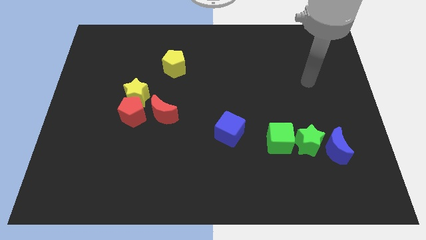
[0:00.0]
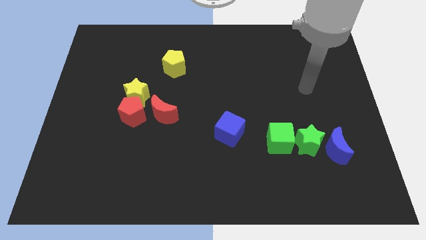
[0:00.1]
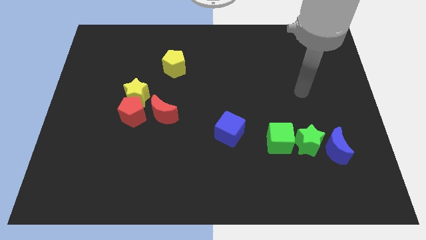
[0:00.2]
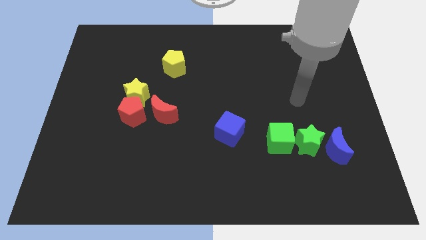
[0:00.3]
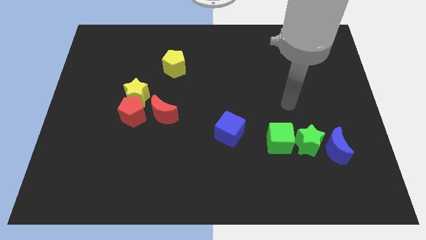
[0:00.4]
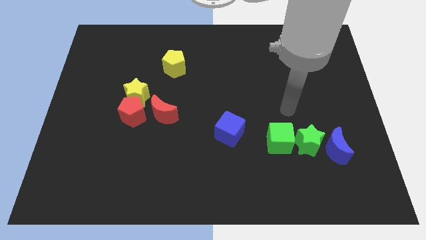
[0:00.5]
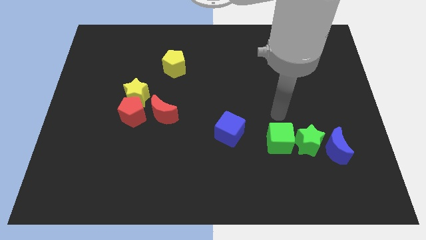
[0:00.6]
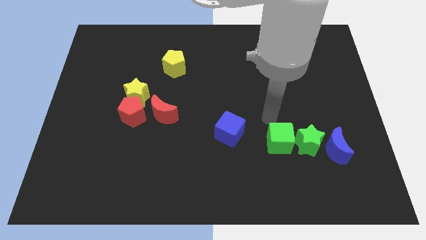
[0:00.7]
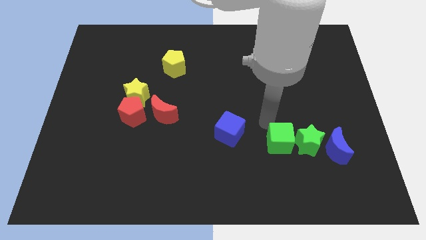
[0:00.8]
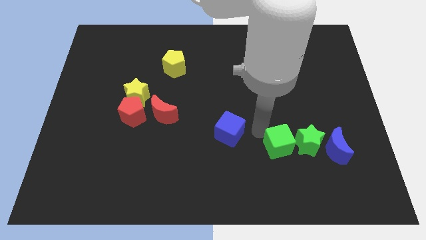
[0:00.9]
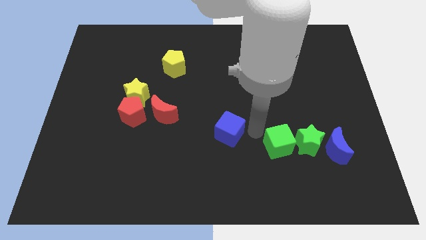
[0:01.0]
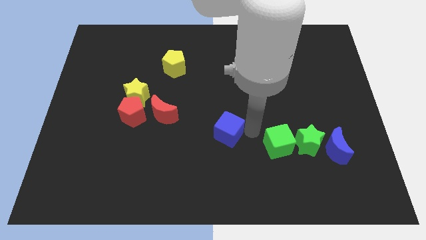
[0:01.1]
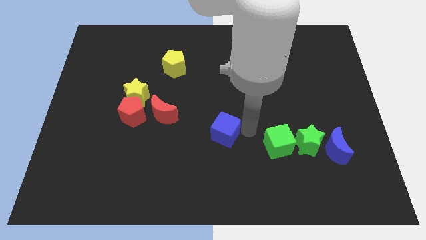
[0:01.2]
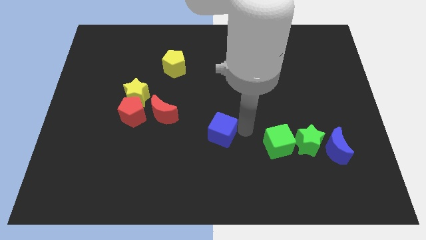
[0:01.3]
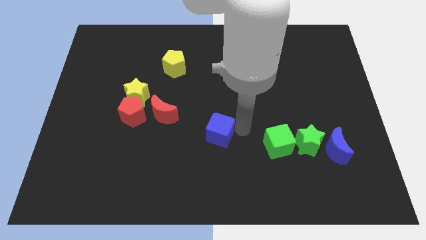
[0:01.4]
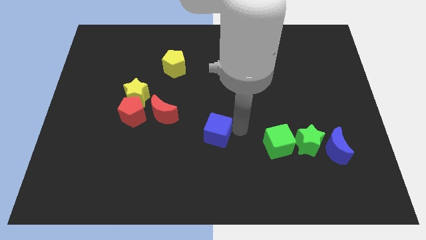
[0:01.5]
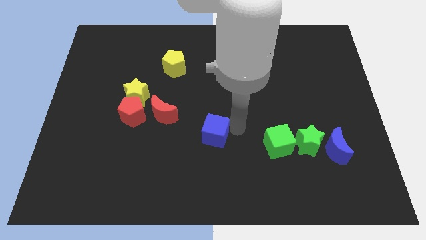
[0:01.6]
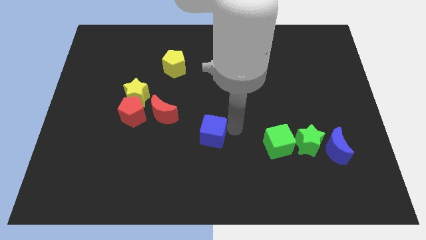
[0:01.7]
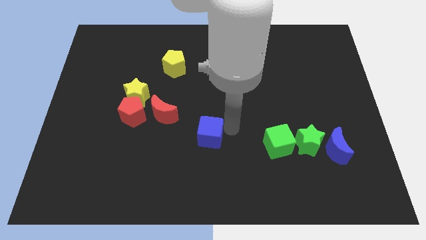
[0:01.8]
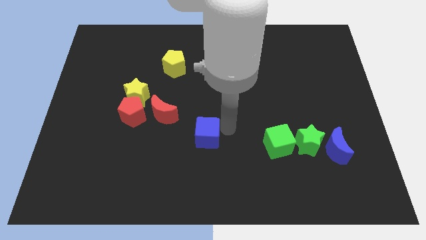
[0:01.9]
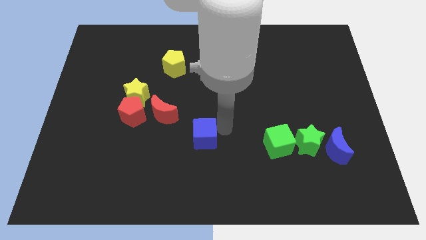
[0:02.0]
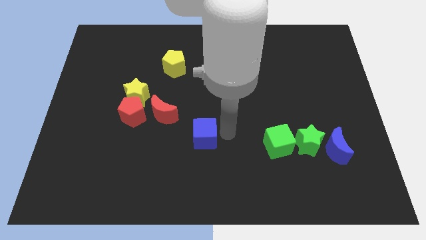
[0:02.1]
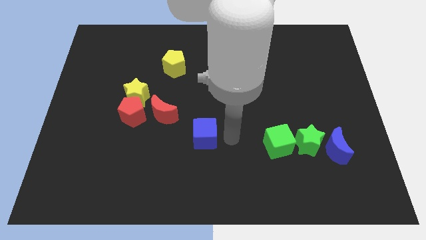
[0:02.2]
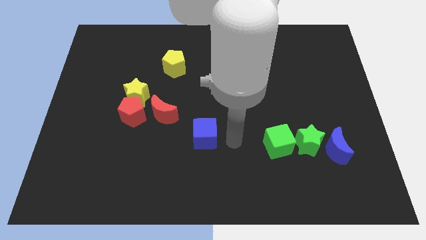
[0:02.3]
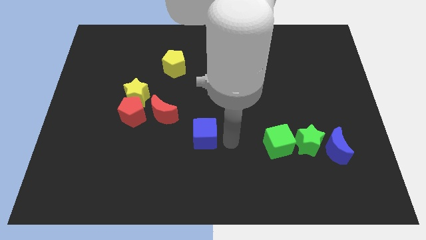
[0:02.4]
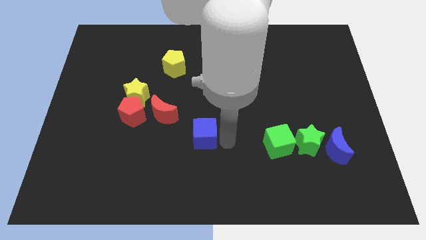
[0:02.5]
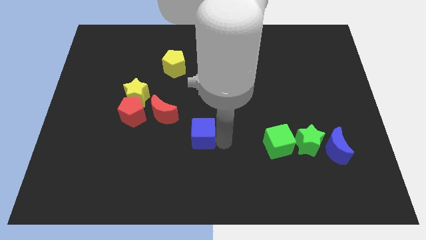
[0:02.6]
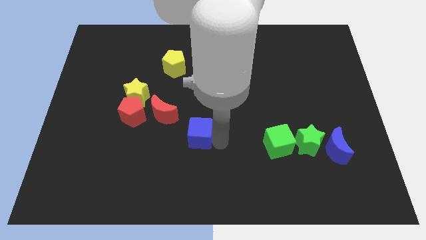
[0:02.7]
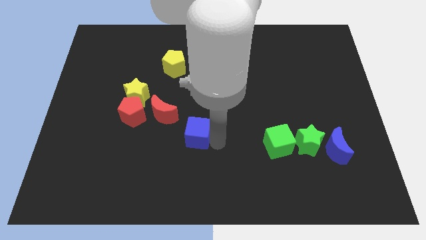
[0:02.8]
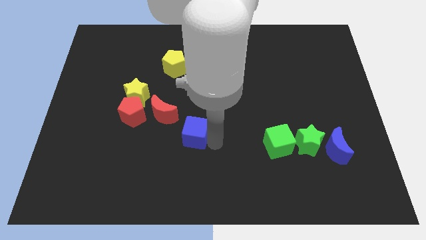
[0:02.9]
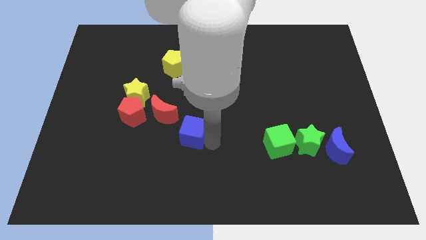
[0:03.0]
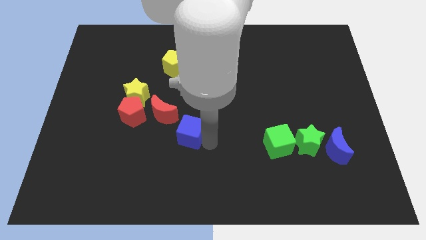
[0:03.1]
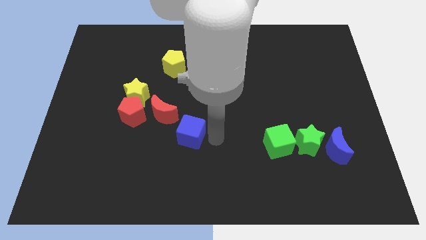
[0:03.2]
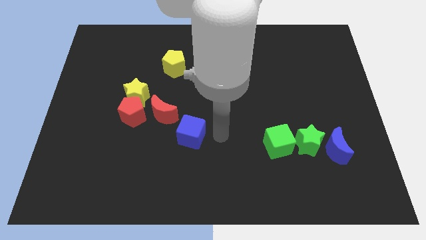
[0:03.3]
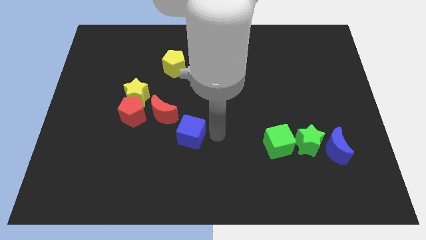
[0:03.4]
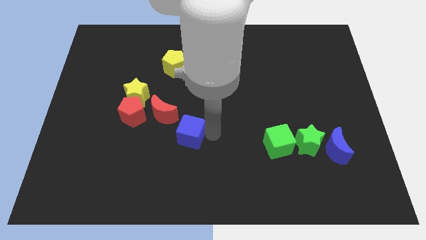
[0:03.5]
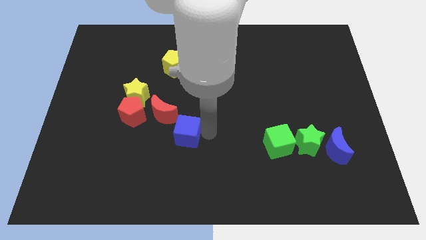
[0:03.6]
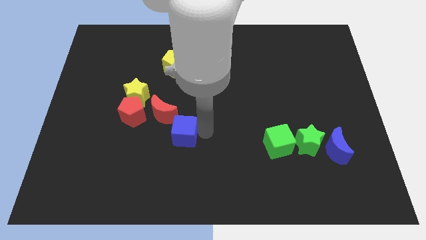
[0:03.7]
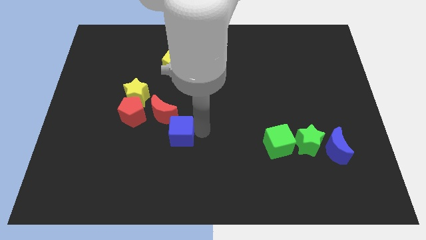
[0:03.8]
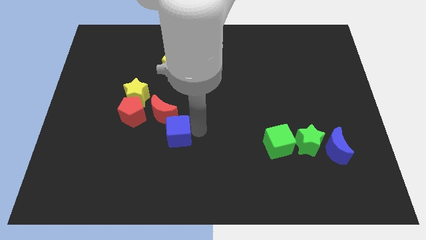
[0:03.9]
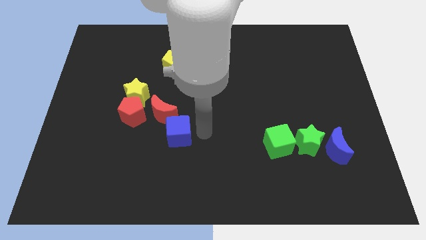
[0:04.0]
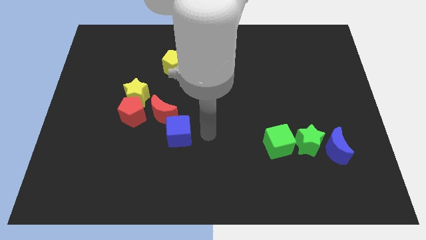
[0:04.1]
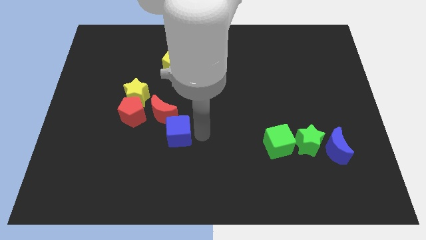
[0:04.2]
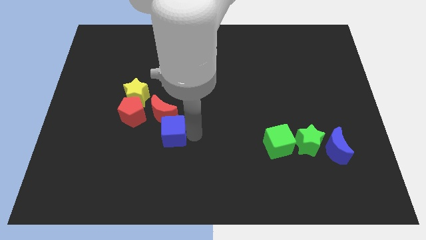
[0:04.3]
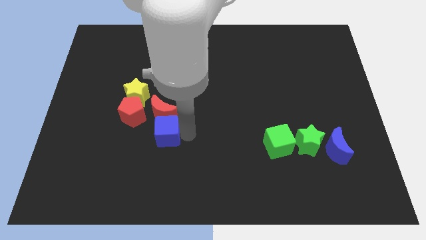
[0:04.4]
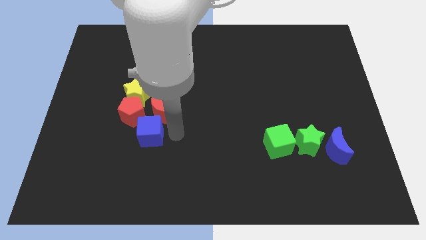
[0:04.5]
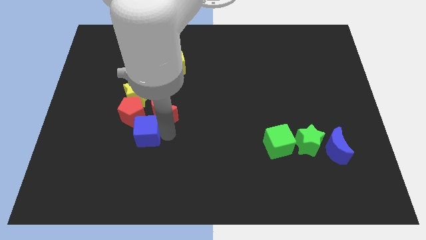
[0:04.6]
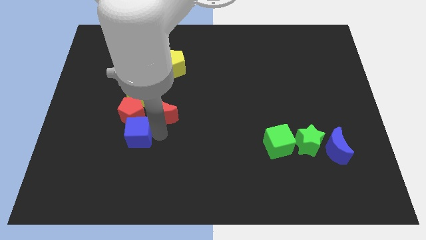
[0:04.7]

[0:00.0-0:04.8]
push the blue cube left

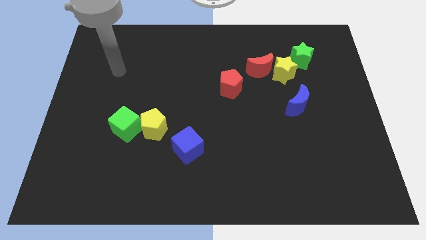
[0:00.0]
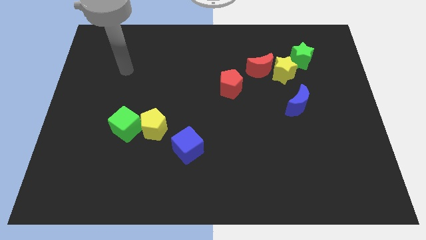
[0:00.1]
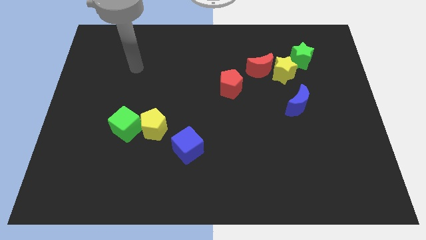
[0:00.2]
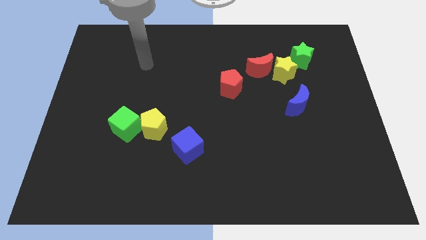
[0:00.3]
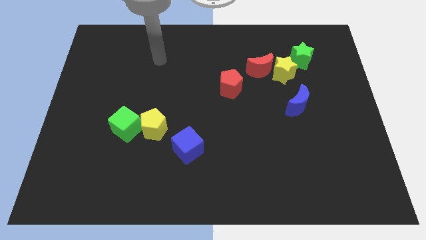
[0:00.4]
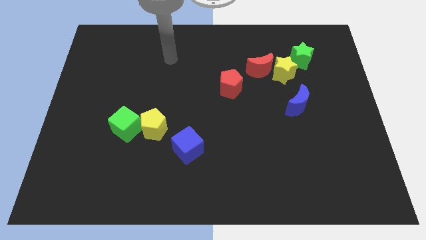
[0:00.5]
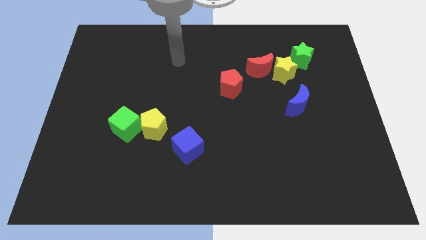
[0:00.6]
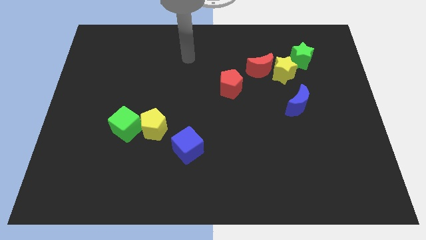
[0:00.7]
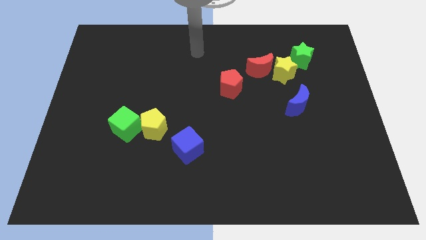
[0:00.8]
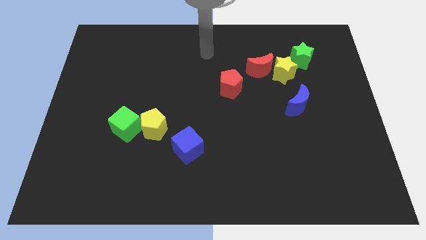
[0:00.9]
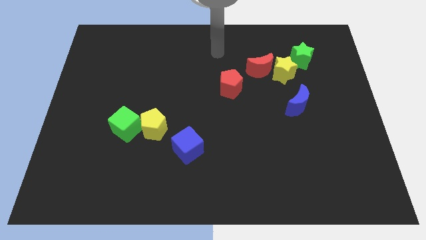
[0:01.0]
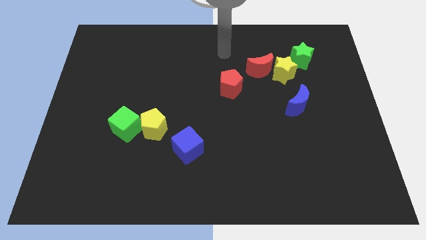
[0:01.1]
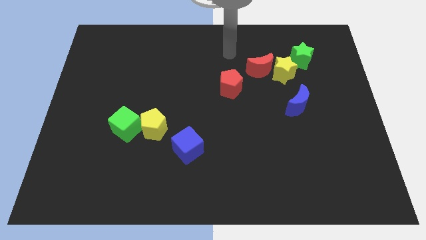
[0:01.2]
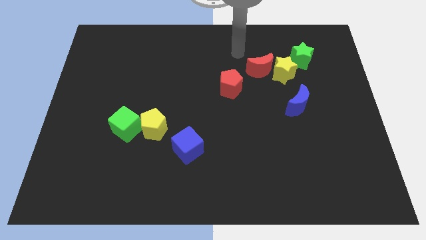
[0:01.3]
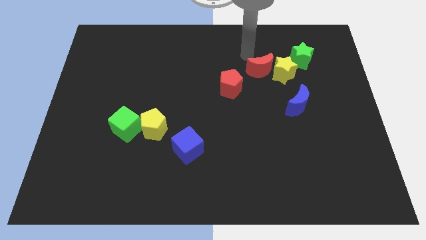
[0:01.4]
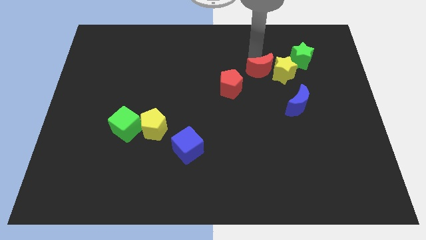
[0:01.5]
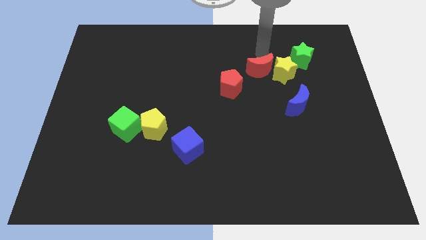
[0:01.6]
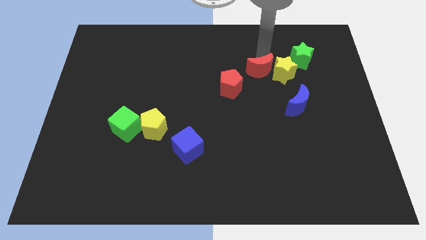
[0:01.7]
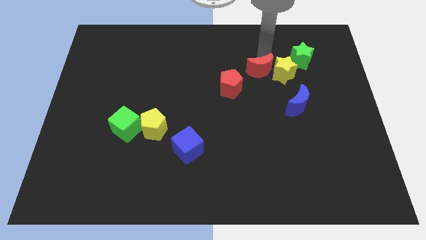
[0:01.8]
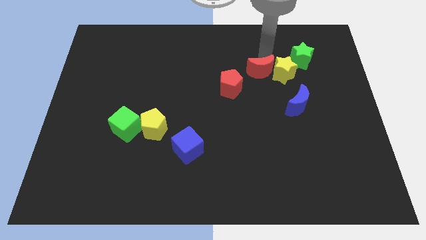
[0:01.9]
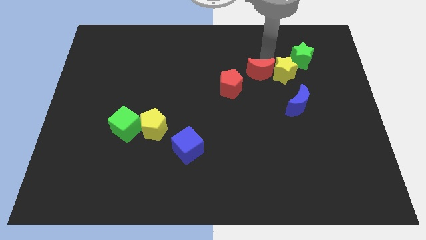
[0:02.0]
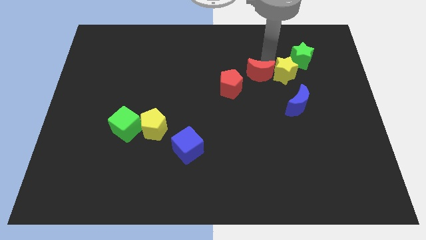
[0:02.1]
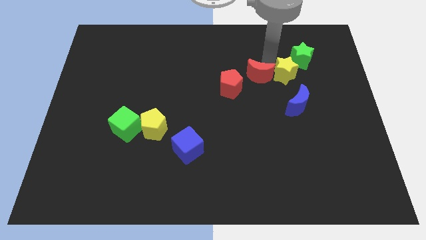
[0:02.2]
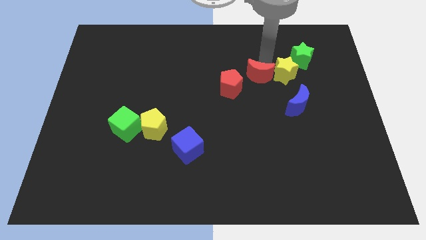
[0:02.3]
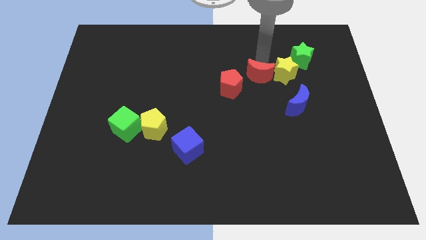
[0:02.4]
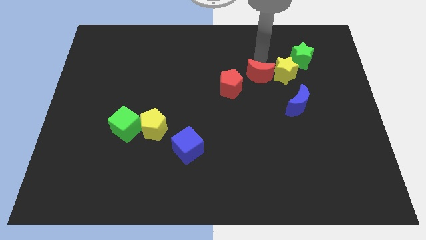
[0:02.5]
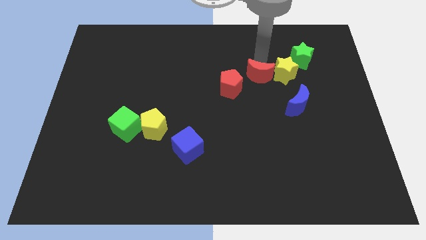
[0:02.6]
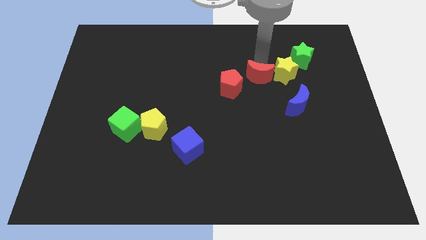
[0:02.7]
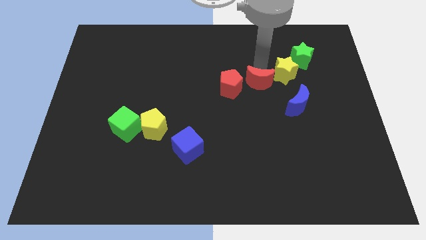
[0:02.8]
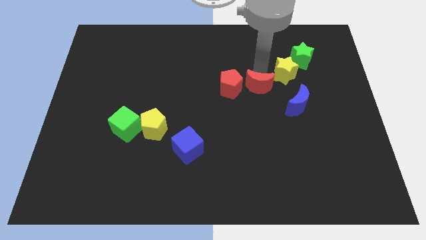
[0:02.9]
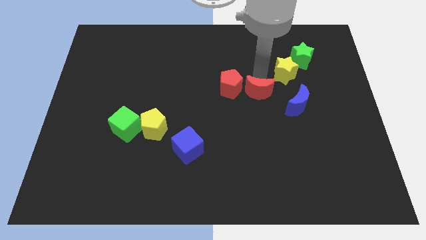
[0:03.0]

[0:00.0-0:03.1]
slightly slide the red moon downwards

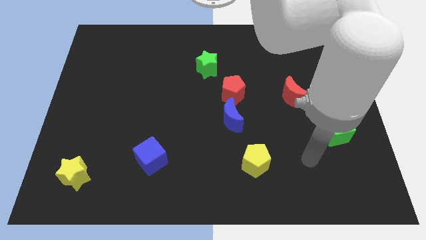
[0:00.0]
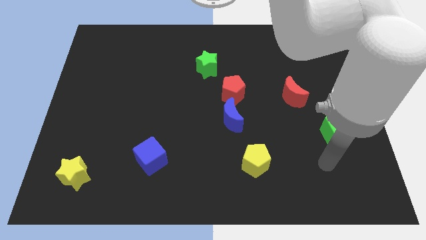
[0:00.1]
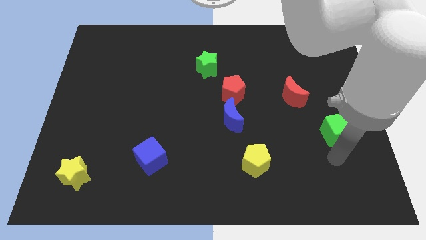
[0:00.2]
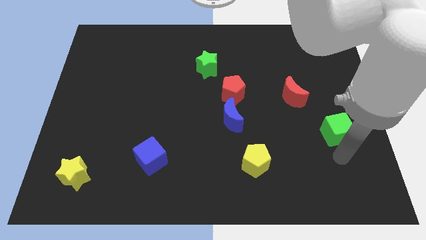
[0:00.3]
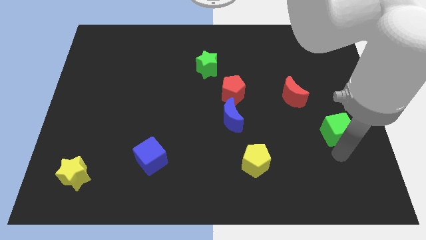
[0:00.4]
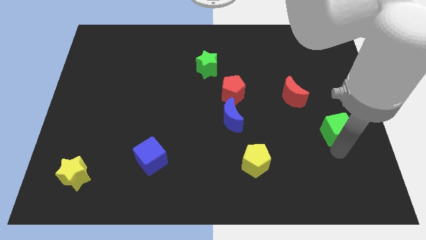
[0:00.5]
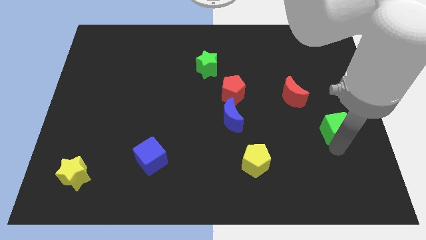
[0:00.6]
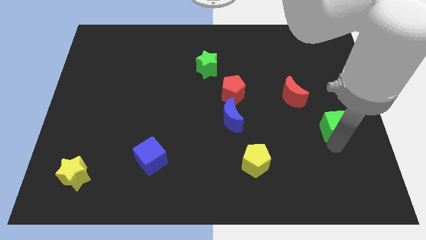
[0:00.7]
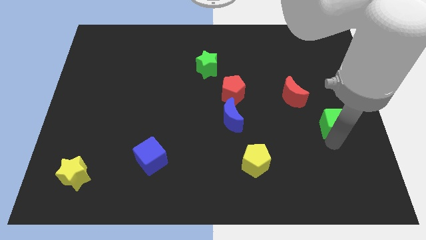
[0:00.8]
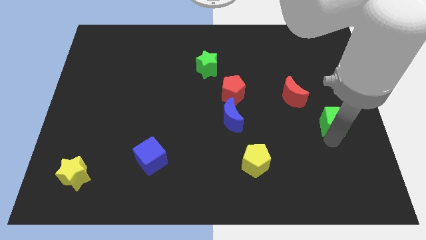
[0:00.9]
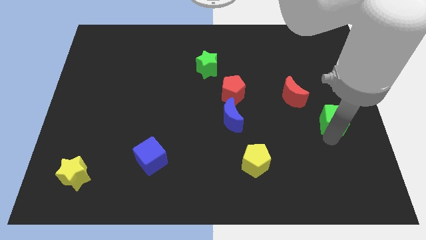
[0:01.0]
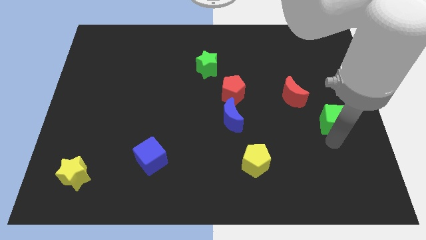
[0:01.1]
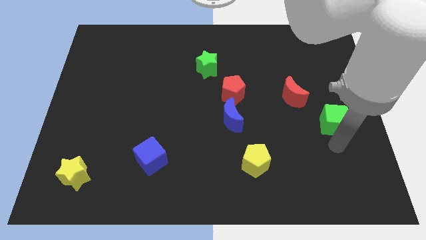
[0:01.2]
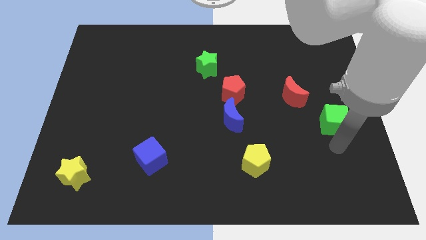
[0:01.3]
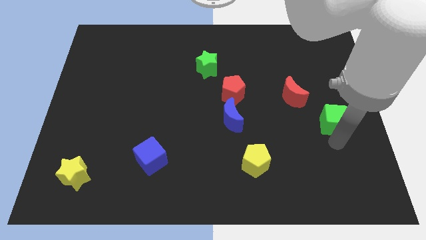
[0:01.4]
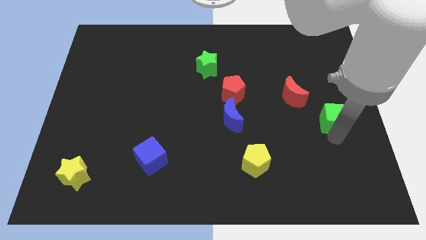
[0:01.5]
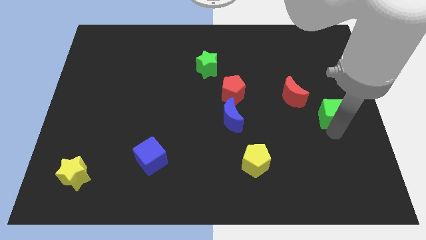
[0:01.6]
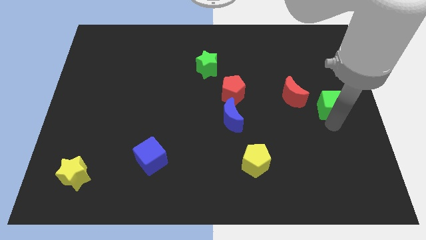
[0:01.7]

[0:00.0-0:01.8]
slide the green cube upwards a little
